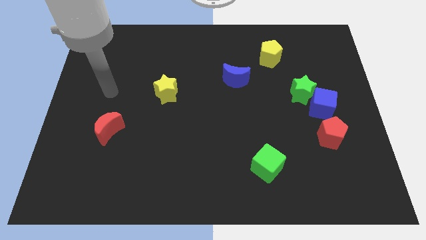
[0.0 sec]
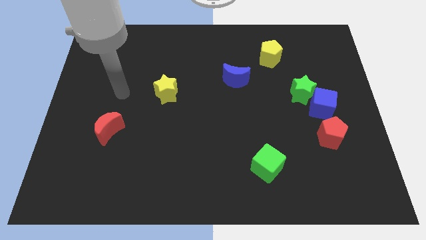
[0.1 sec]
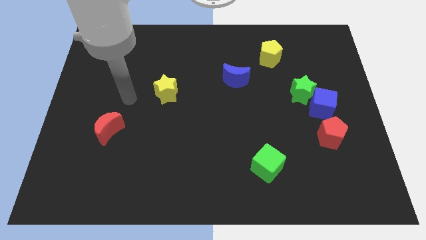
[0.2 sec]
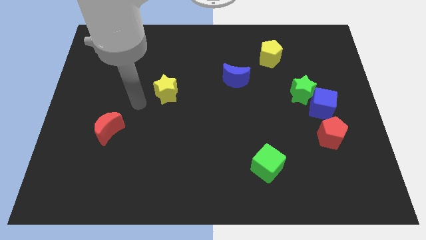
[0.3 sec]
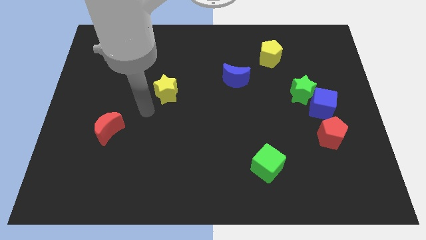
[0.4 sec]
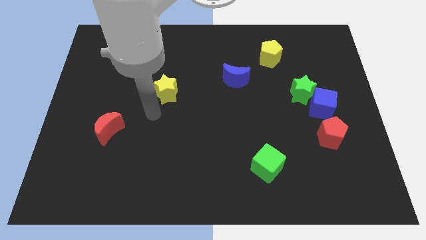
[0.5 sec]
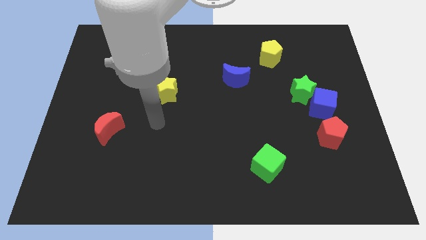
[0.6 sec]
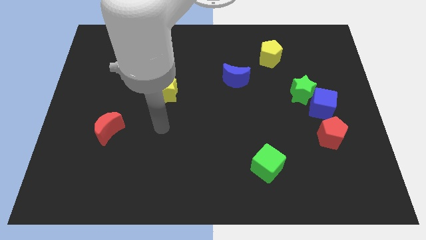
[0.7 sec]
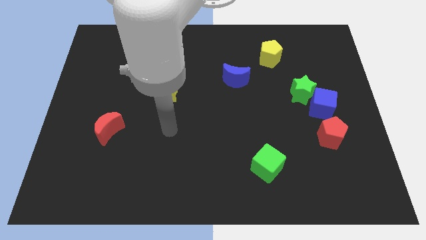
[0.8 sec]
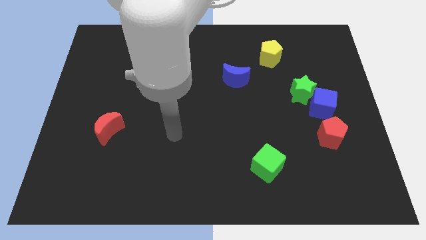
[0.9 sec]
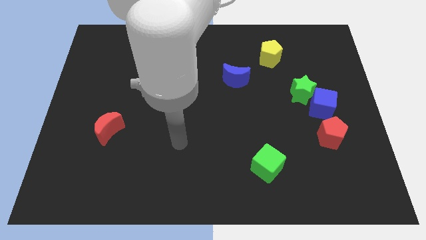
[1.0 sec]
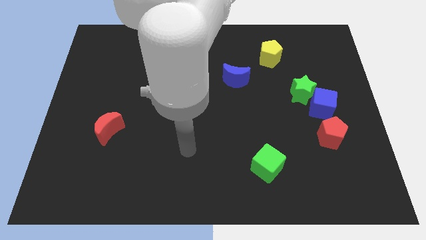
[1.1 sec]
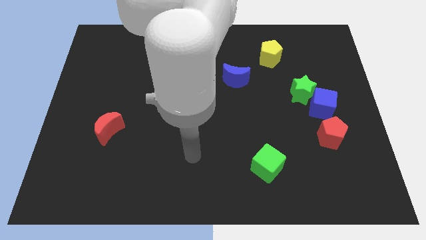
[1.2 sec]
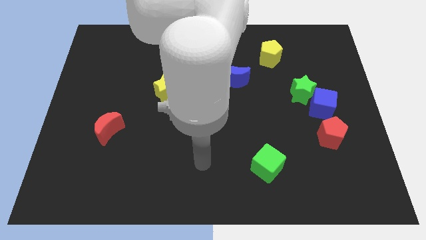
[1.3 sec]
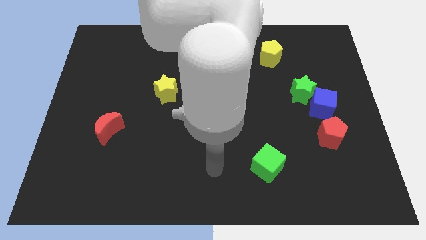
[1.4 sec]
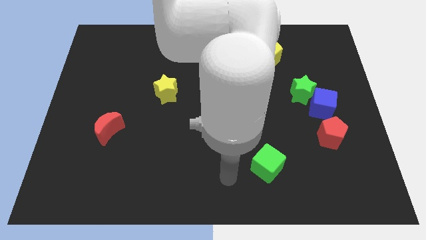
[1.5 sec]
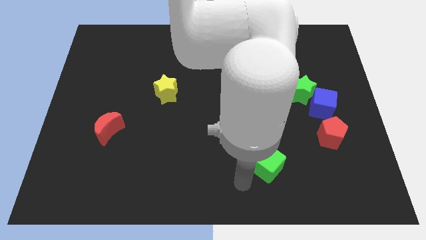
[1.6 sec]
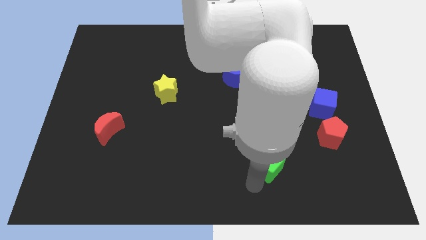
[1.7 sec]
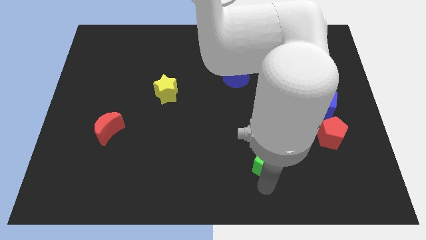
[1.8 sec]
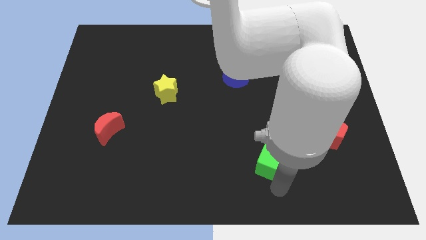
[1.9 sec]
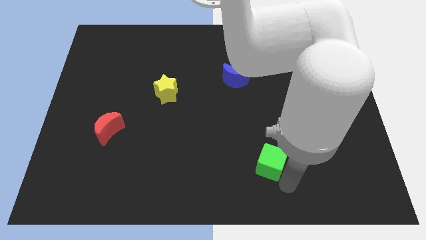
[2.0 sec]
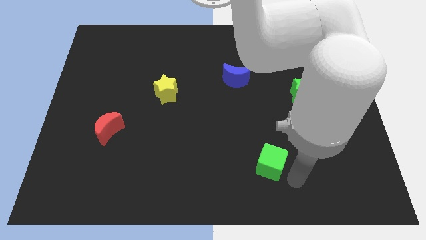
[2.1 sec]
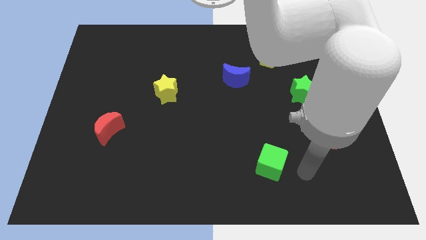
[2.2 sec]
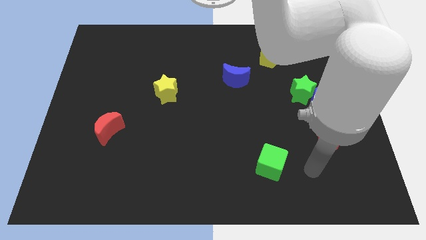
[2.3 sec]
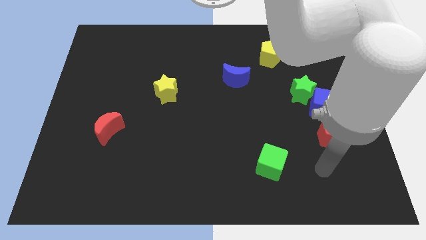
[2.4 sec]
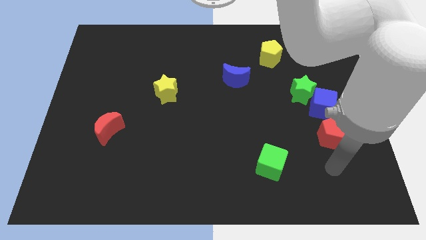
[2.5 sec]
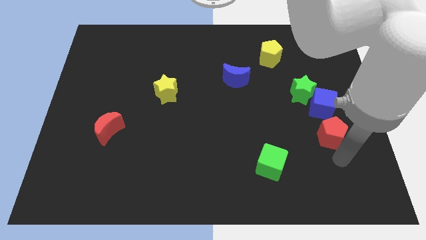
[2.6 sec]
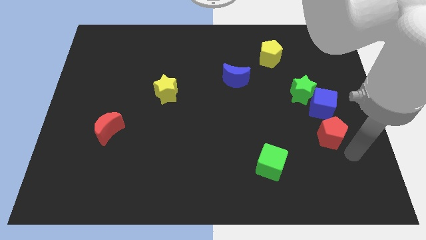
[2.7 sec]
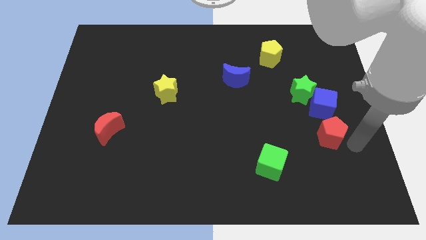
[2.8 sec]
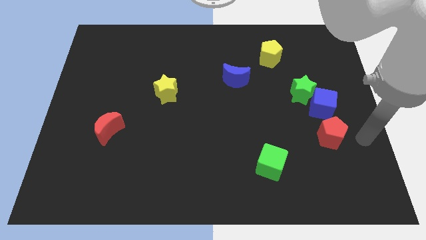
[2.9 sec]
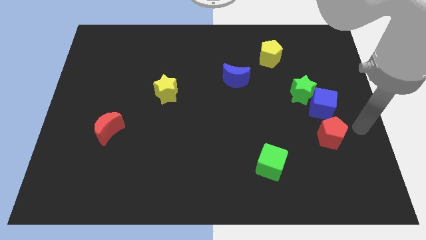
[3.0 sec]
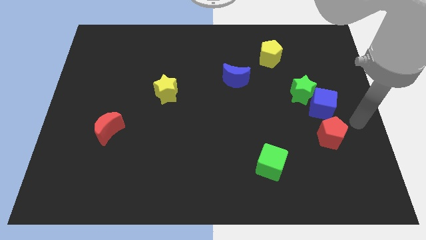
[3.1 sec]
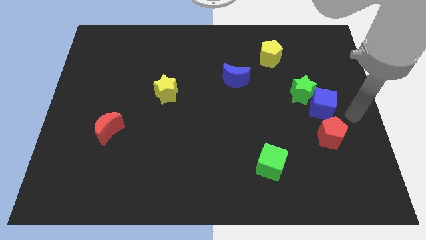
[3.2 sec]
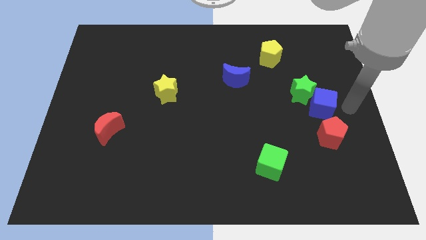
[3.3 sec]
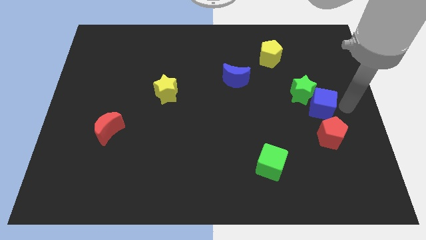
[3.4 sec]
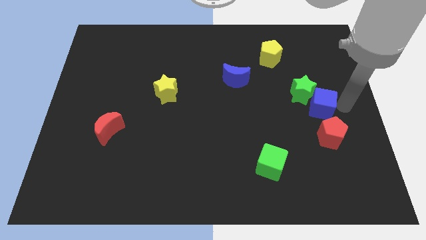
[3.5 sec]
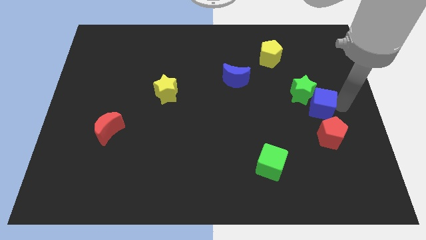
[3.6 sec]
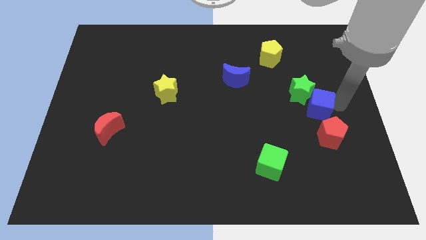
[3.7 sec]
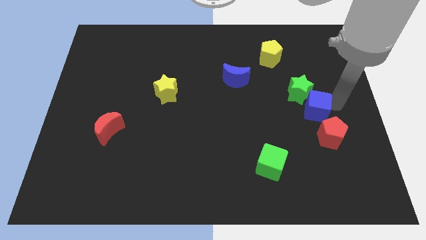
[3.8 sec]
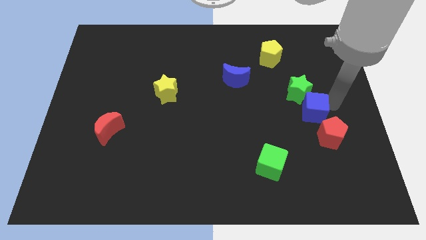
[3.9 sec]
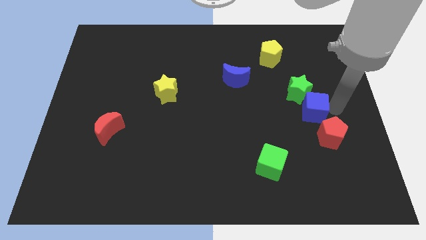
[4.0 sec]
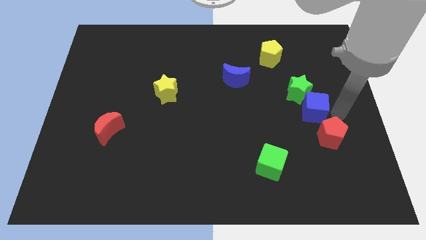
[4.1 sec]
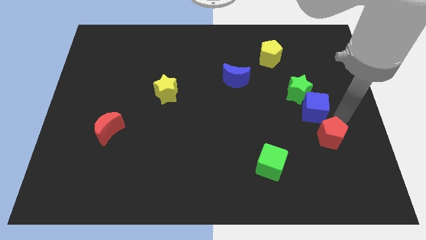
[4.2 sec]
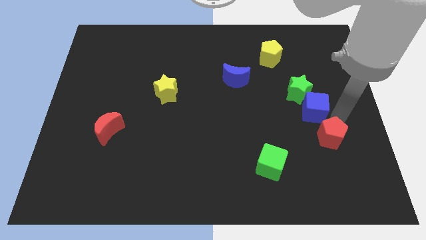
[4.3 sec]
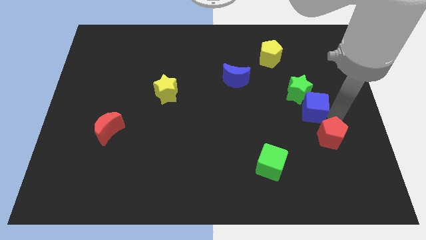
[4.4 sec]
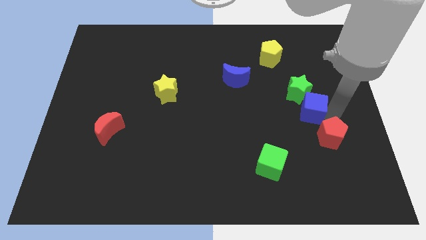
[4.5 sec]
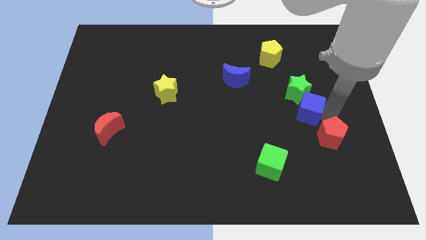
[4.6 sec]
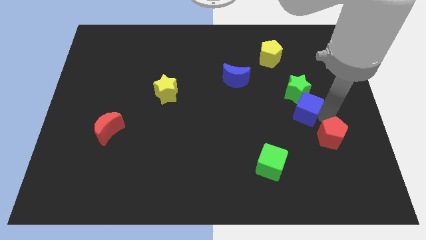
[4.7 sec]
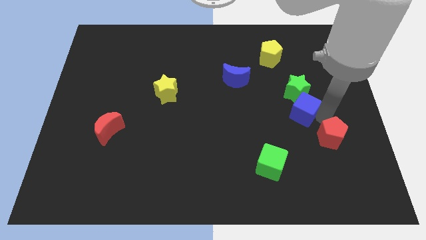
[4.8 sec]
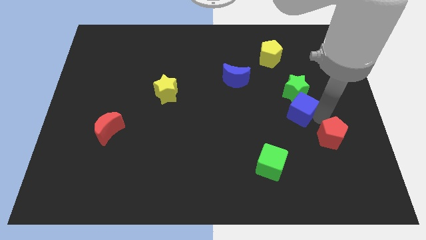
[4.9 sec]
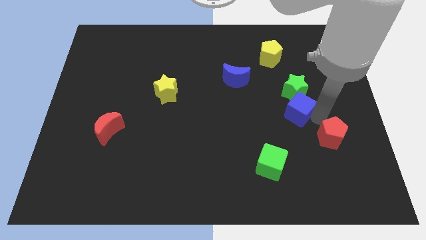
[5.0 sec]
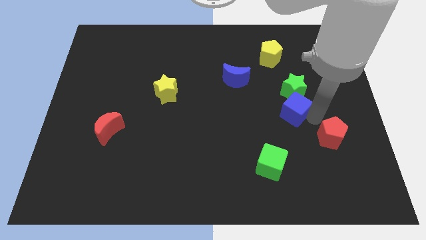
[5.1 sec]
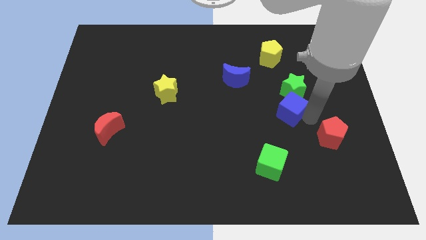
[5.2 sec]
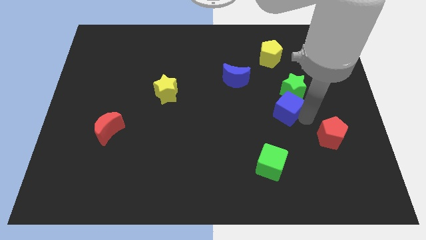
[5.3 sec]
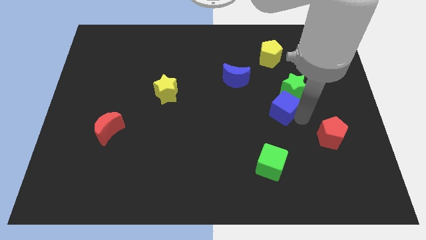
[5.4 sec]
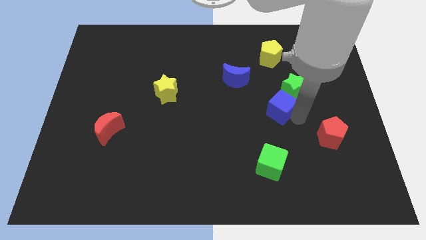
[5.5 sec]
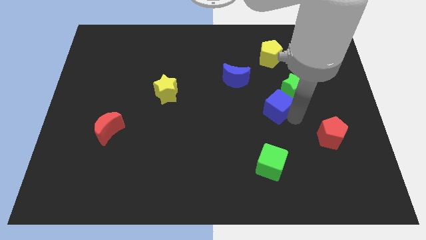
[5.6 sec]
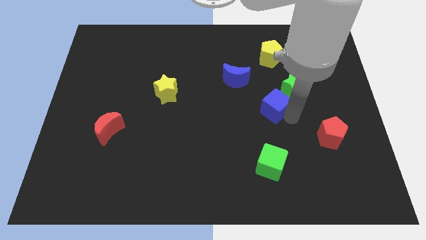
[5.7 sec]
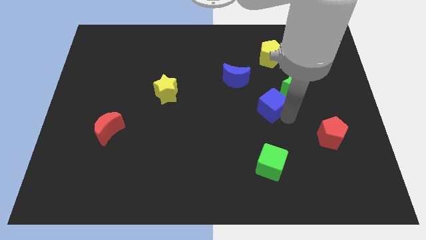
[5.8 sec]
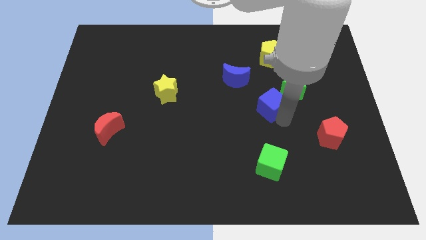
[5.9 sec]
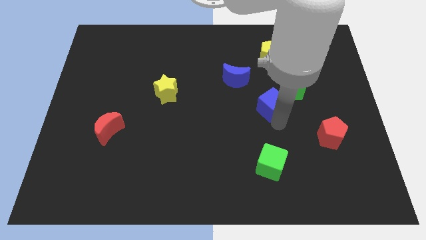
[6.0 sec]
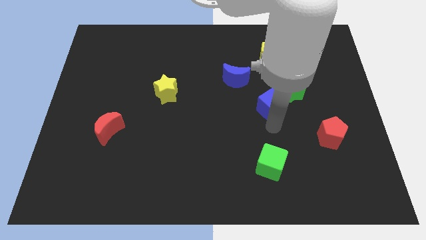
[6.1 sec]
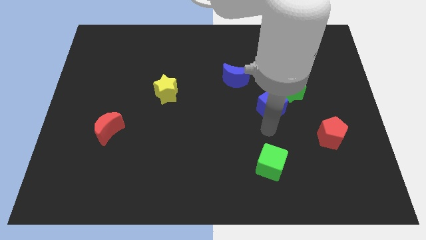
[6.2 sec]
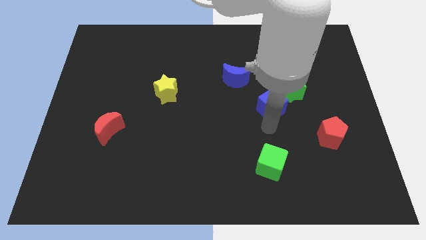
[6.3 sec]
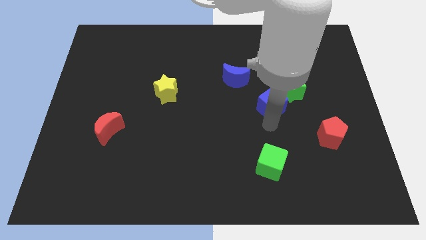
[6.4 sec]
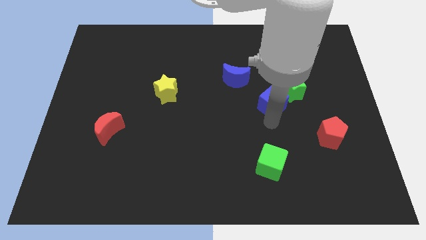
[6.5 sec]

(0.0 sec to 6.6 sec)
move the blue cube to the bottom of the yellow pentagon

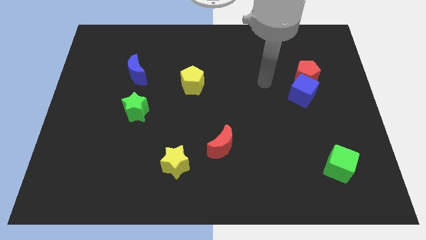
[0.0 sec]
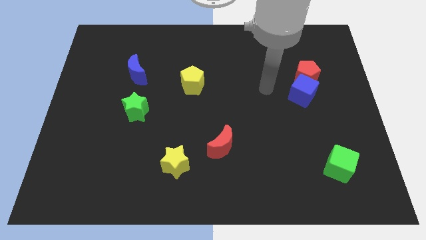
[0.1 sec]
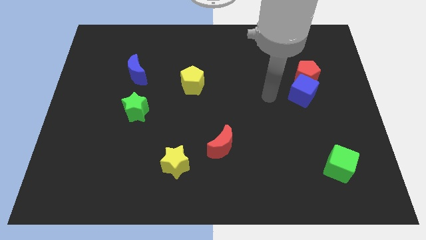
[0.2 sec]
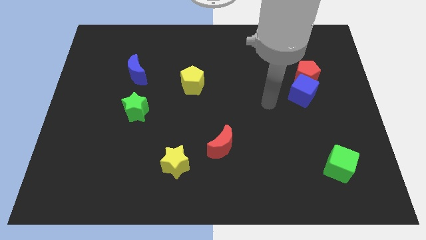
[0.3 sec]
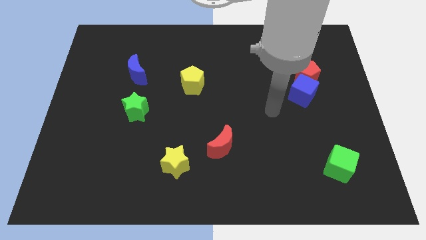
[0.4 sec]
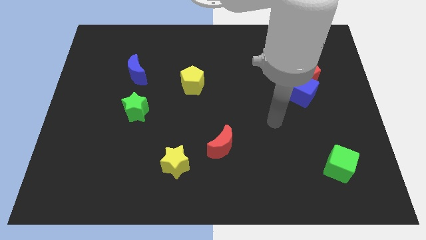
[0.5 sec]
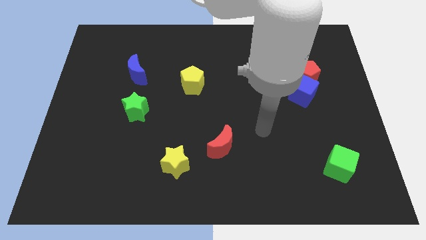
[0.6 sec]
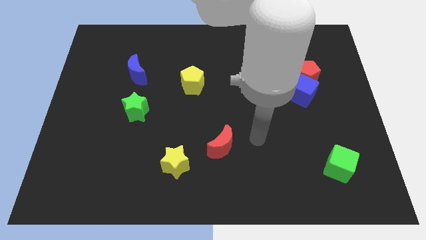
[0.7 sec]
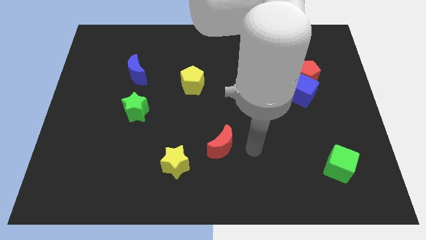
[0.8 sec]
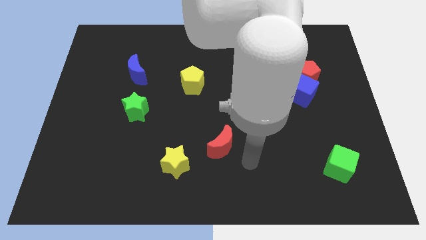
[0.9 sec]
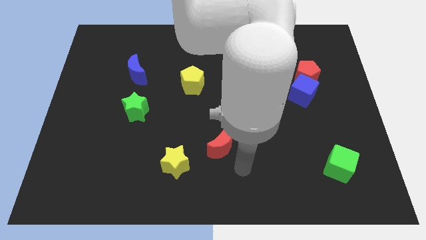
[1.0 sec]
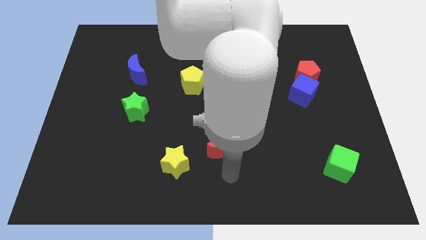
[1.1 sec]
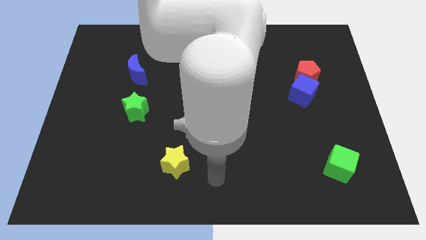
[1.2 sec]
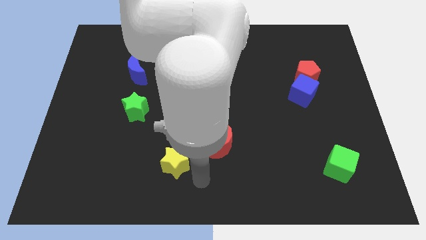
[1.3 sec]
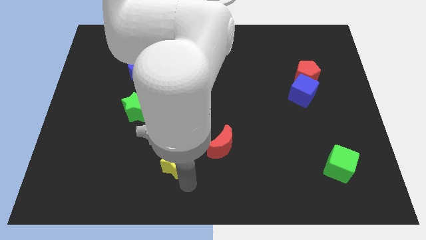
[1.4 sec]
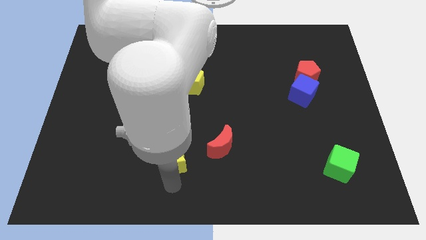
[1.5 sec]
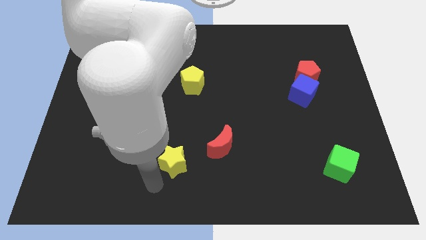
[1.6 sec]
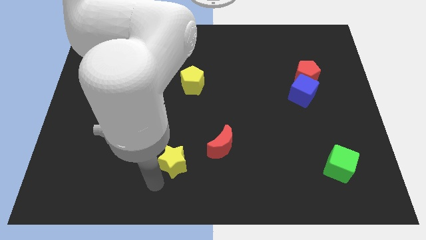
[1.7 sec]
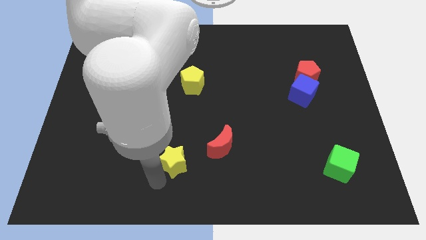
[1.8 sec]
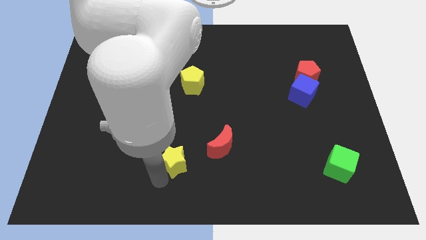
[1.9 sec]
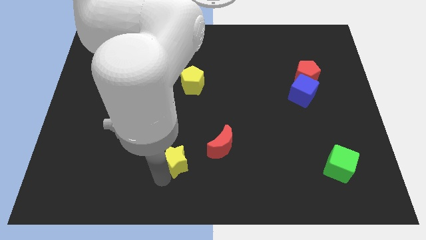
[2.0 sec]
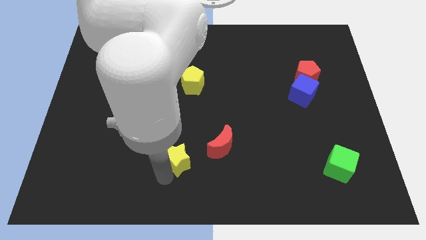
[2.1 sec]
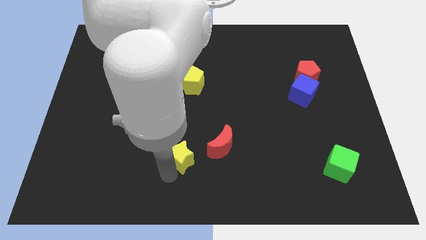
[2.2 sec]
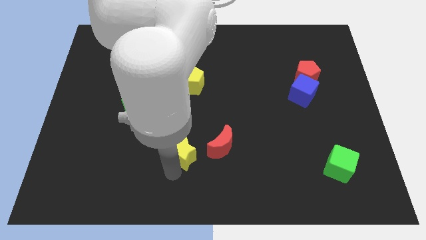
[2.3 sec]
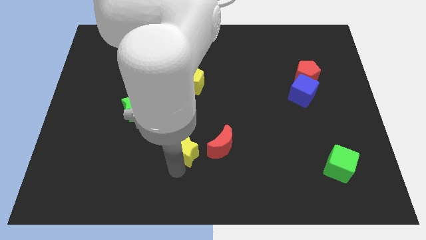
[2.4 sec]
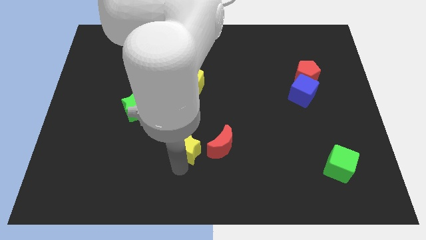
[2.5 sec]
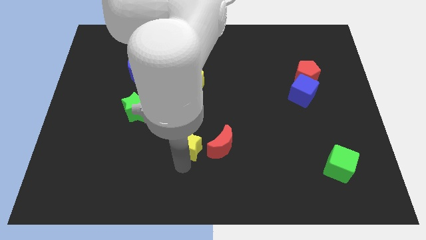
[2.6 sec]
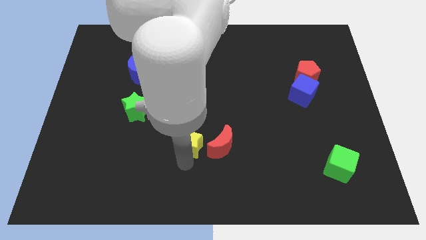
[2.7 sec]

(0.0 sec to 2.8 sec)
push the yellow star diagonally up and to the left of the red moon
